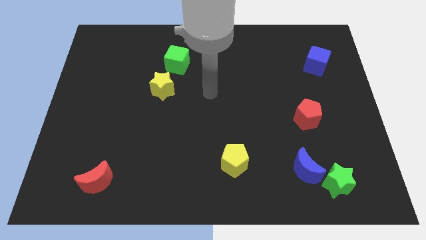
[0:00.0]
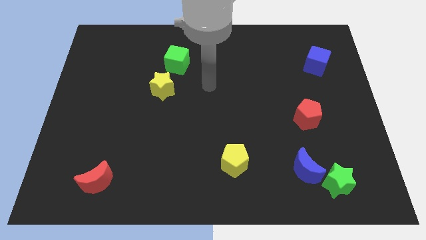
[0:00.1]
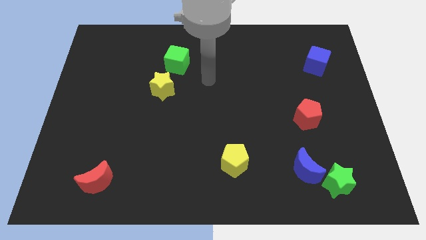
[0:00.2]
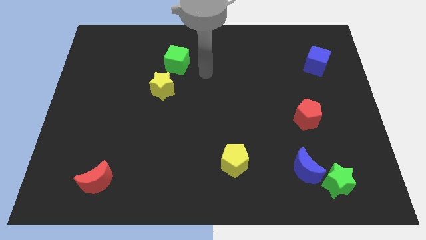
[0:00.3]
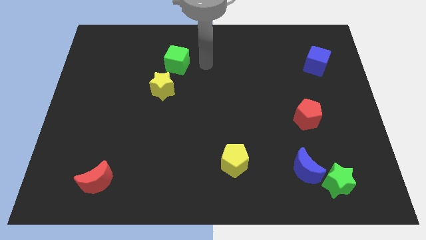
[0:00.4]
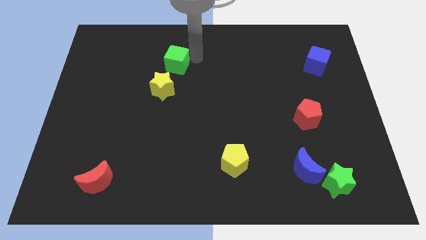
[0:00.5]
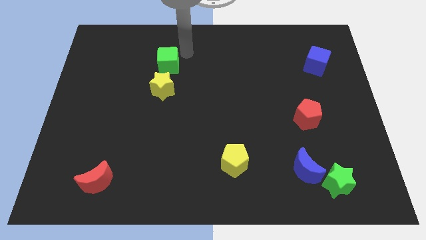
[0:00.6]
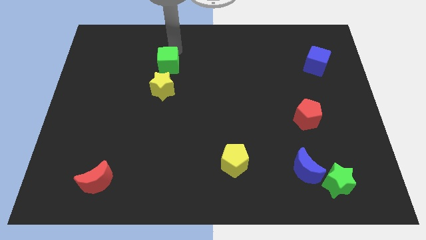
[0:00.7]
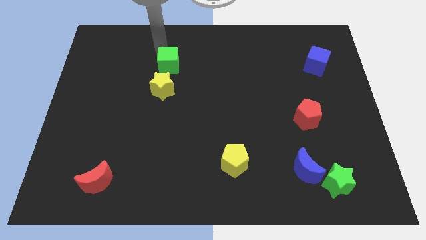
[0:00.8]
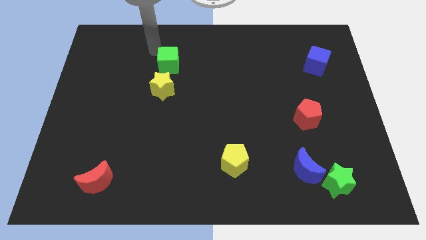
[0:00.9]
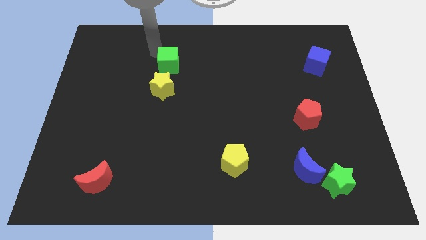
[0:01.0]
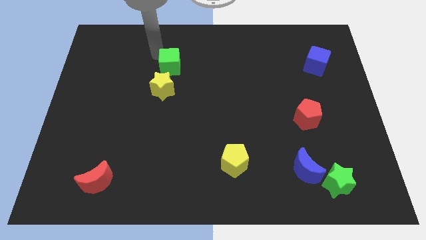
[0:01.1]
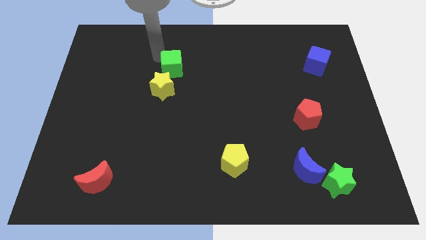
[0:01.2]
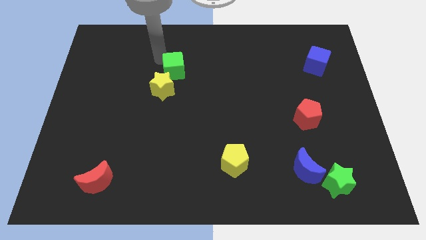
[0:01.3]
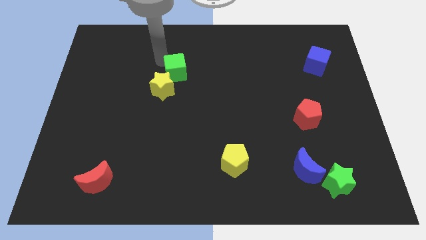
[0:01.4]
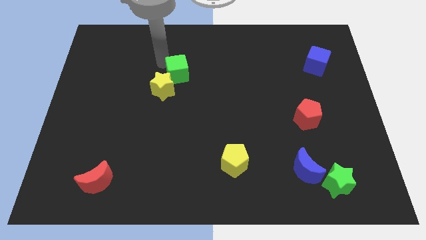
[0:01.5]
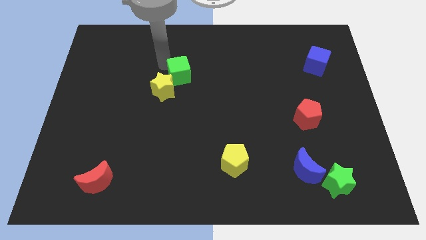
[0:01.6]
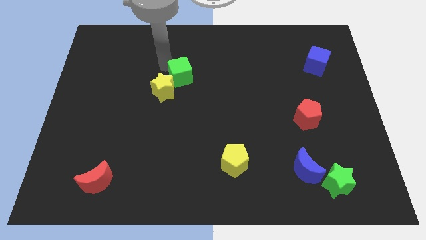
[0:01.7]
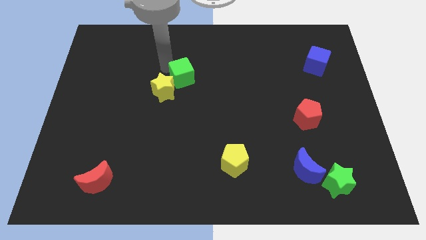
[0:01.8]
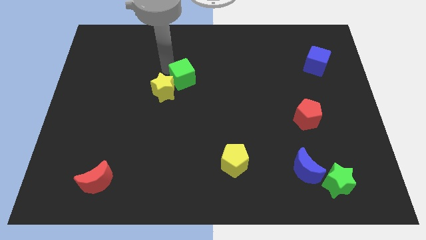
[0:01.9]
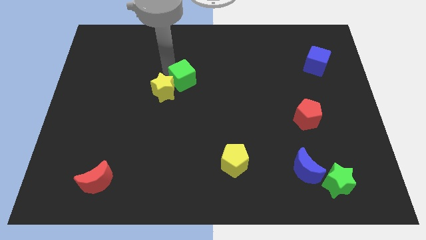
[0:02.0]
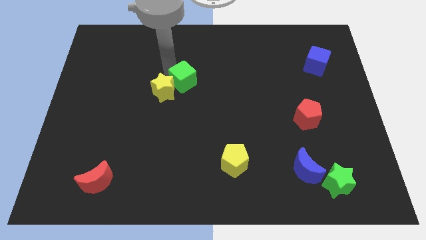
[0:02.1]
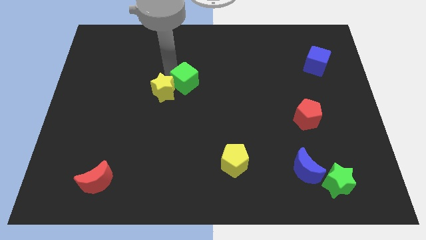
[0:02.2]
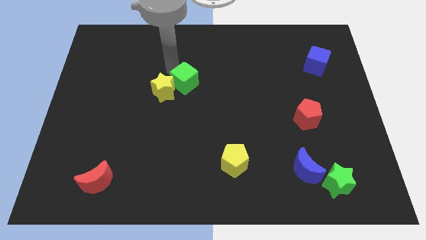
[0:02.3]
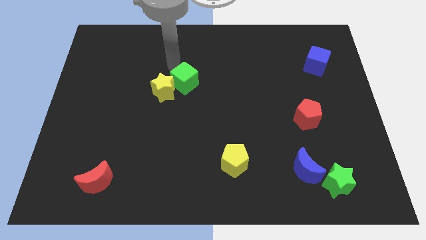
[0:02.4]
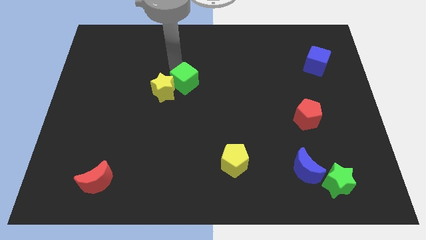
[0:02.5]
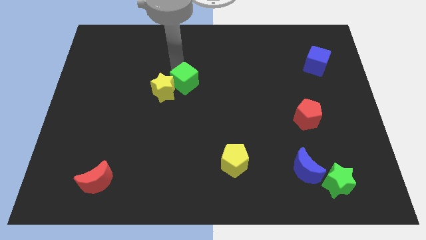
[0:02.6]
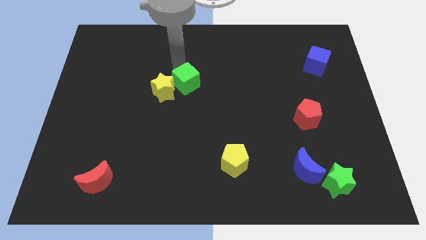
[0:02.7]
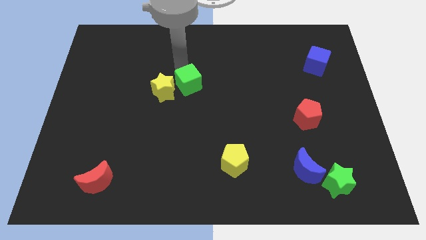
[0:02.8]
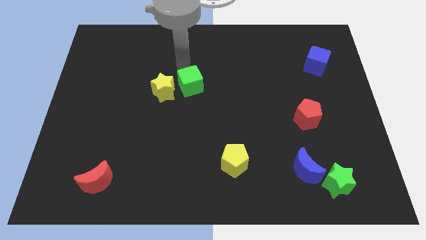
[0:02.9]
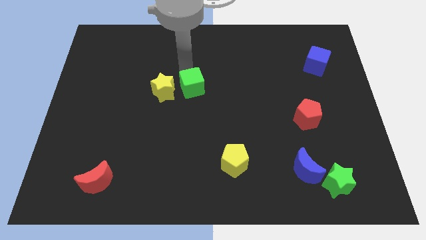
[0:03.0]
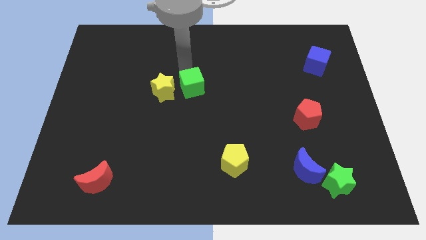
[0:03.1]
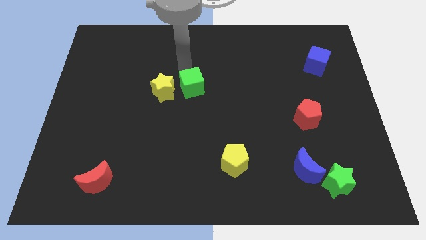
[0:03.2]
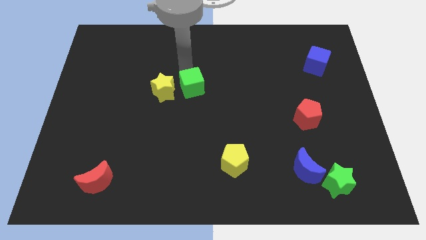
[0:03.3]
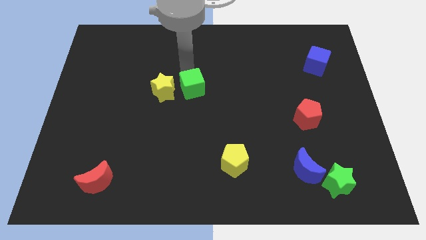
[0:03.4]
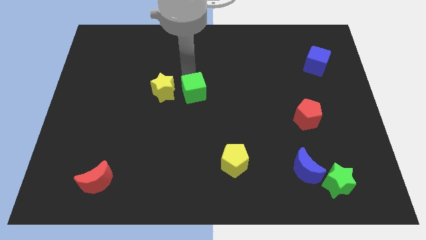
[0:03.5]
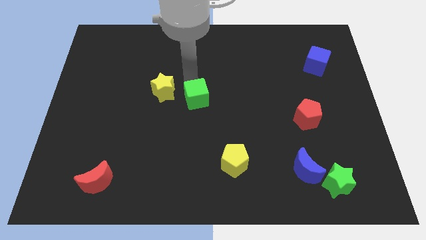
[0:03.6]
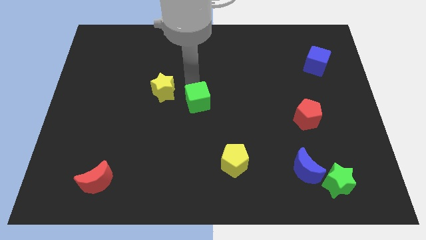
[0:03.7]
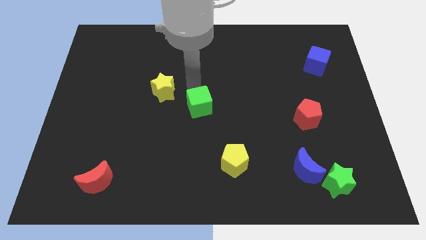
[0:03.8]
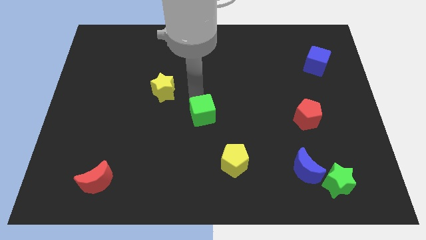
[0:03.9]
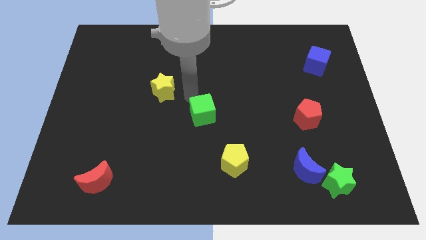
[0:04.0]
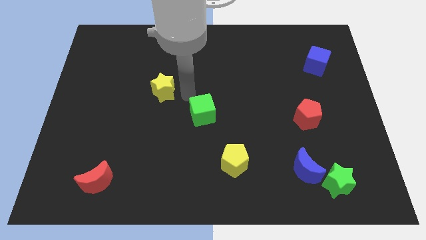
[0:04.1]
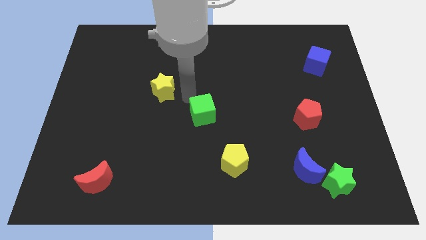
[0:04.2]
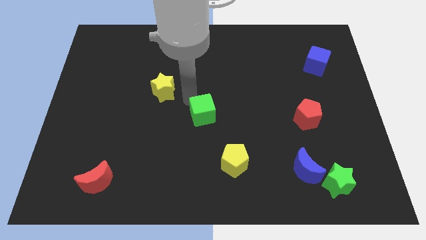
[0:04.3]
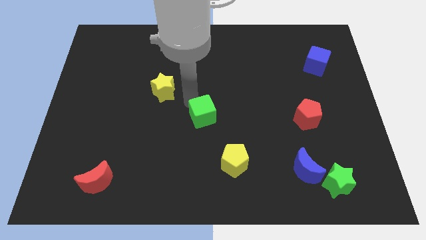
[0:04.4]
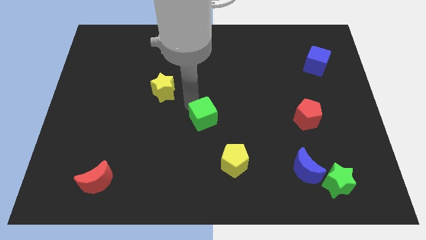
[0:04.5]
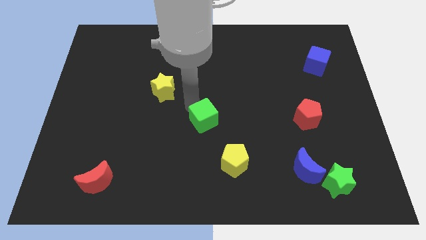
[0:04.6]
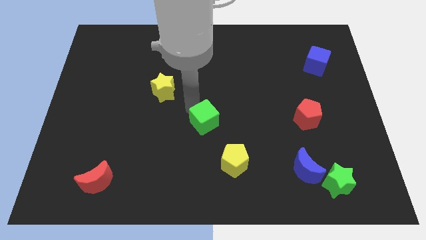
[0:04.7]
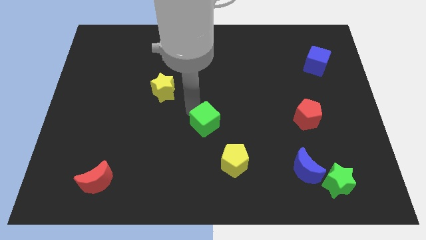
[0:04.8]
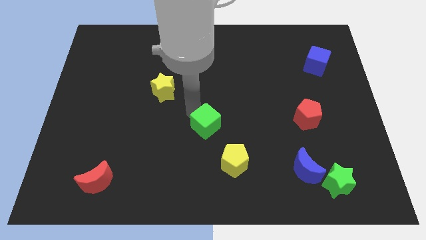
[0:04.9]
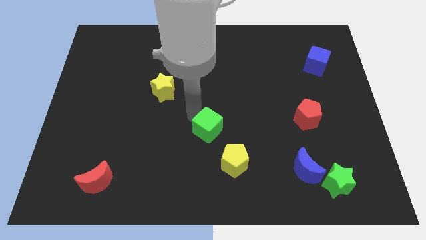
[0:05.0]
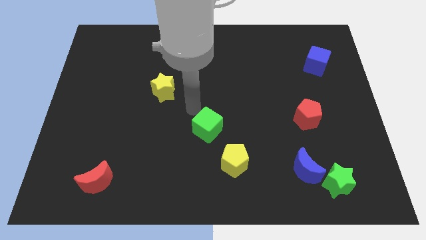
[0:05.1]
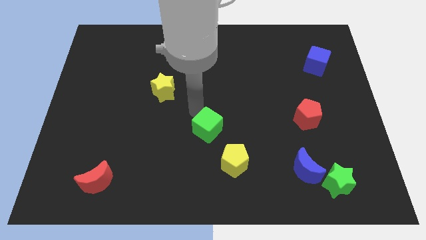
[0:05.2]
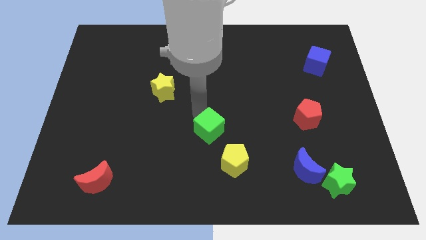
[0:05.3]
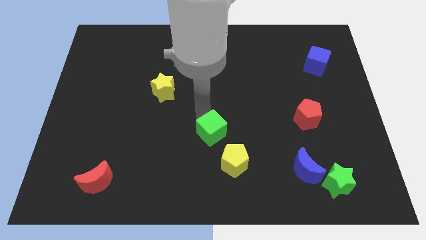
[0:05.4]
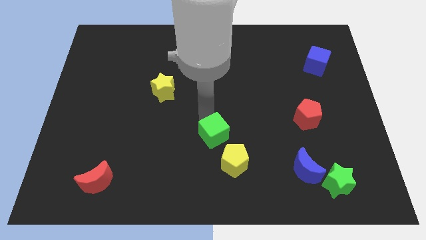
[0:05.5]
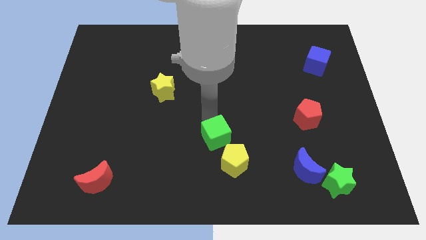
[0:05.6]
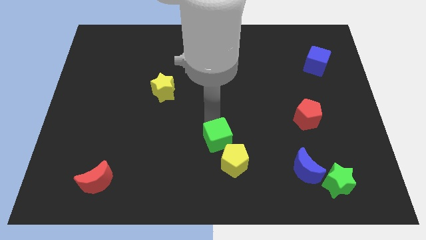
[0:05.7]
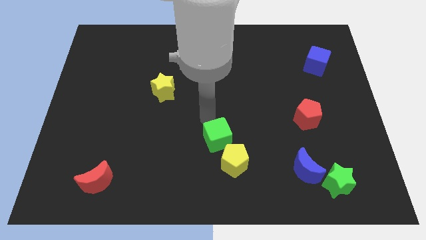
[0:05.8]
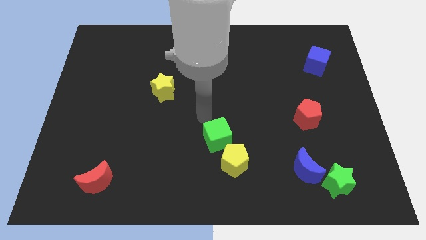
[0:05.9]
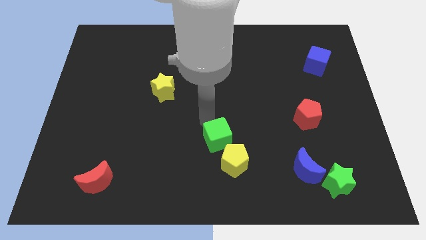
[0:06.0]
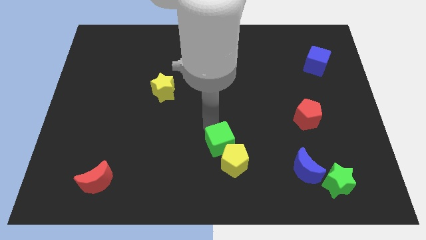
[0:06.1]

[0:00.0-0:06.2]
move the green cube next to the yellow pentagon

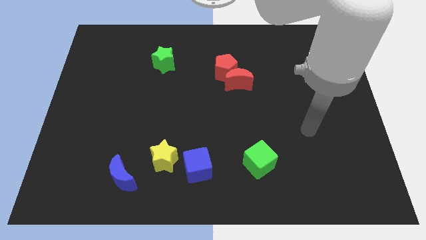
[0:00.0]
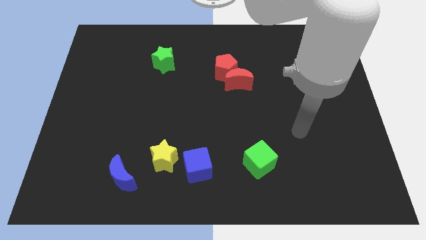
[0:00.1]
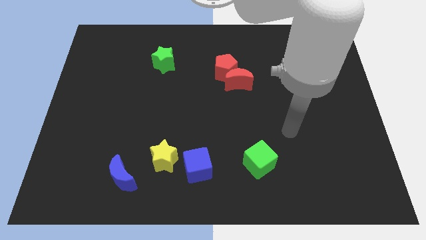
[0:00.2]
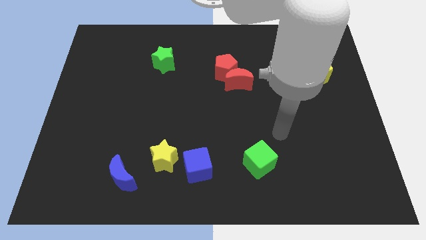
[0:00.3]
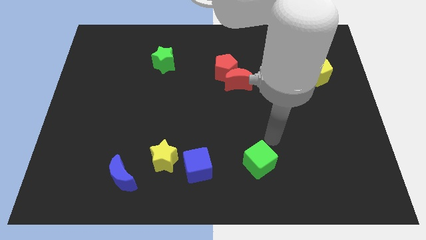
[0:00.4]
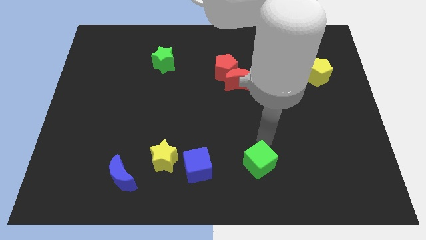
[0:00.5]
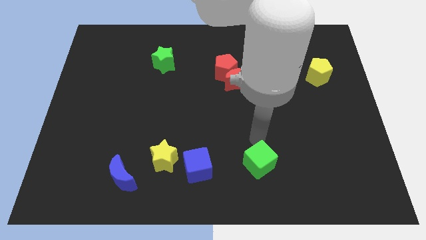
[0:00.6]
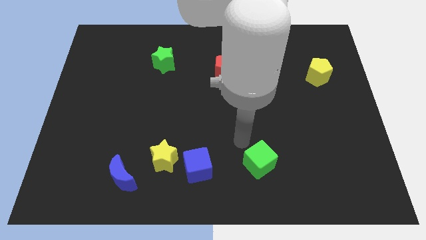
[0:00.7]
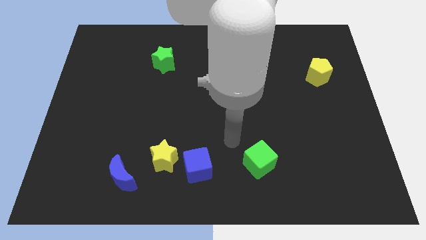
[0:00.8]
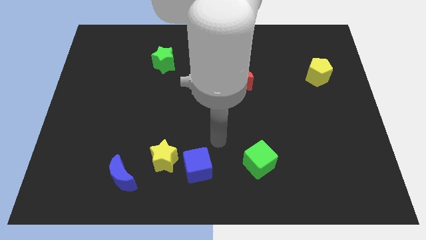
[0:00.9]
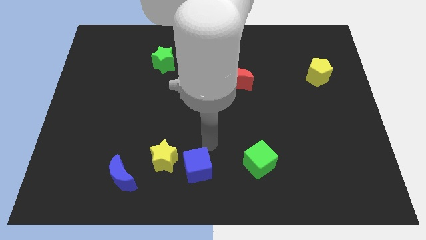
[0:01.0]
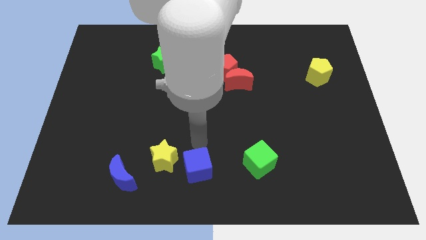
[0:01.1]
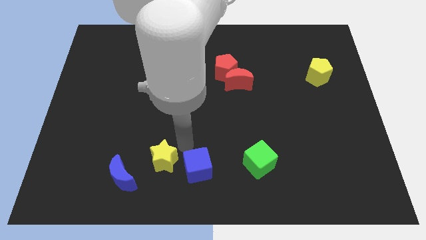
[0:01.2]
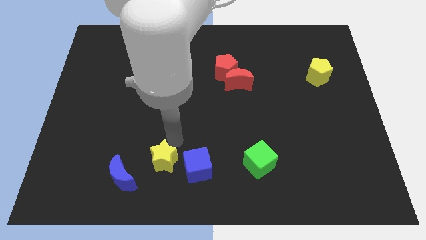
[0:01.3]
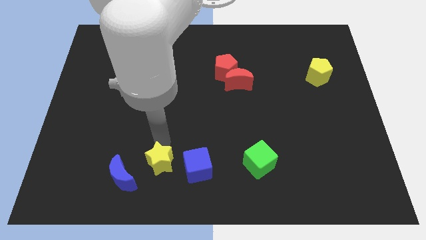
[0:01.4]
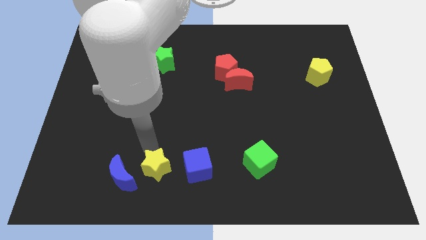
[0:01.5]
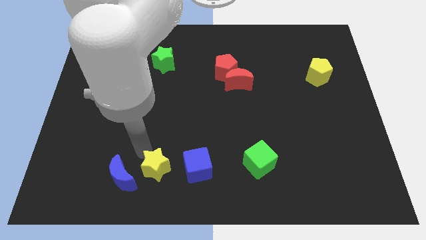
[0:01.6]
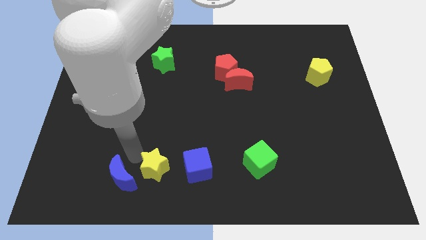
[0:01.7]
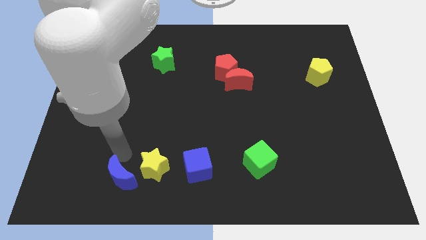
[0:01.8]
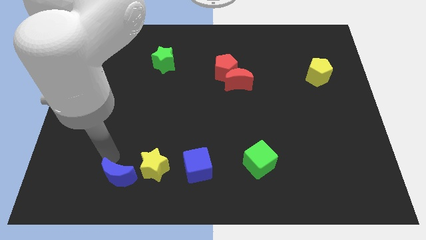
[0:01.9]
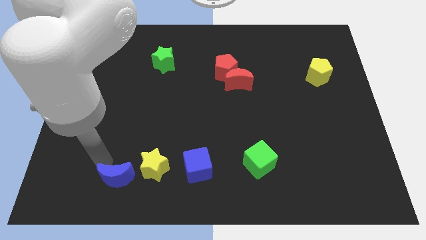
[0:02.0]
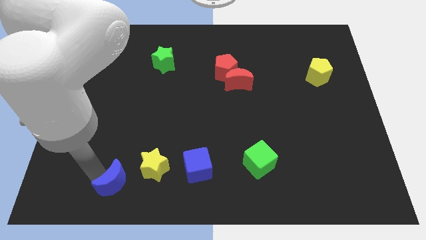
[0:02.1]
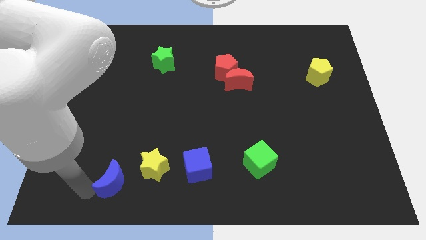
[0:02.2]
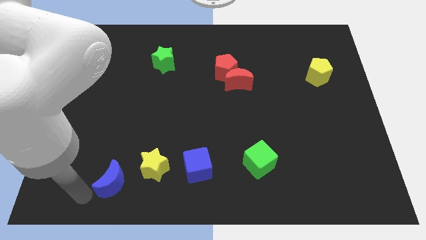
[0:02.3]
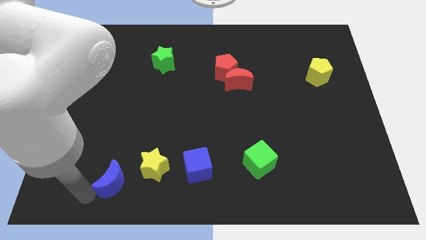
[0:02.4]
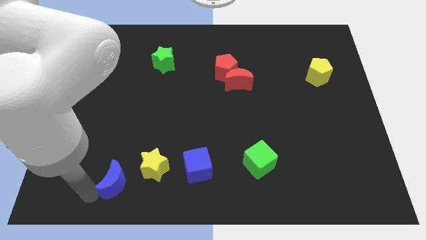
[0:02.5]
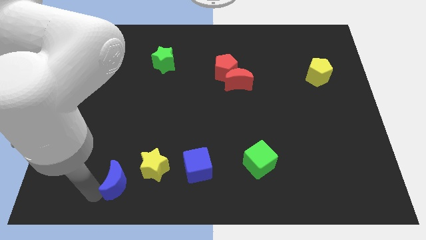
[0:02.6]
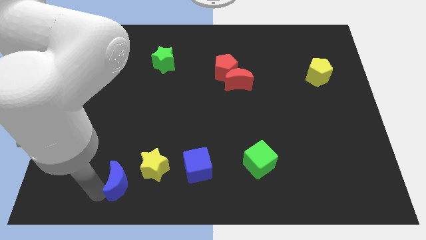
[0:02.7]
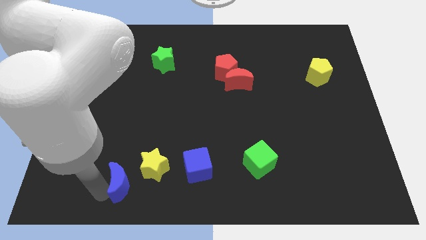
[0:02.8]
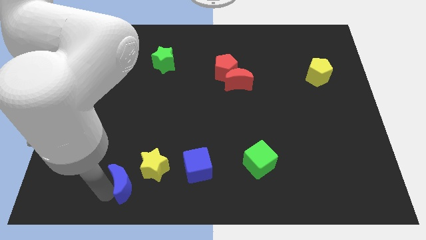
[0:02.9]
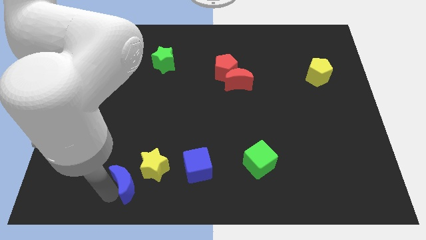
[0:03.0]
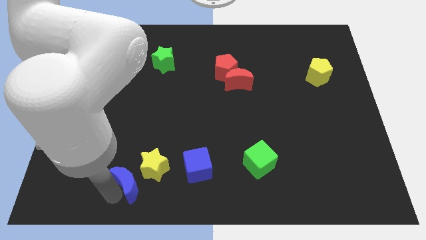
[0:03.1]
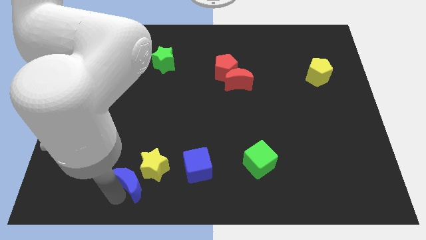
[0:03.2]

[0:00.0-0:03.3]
move the blue moon to the yellow star
